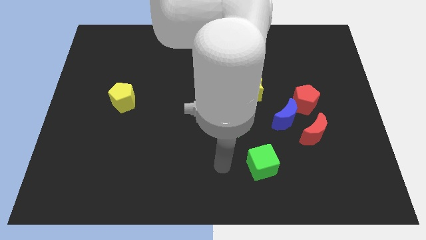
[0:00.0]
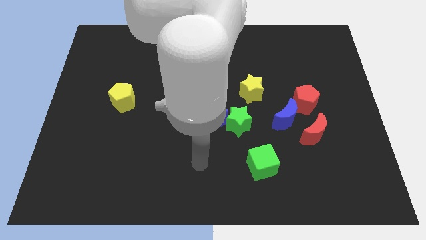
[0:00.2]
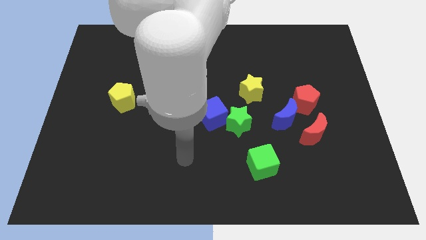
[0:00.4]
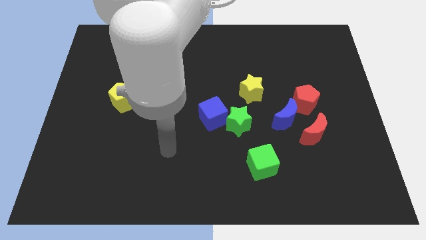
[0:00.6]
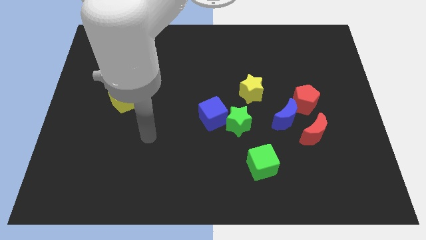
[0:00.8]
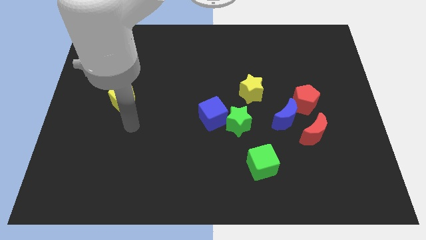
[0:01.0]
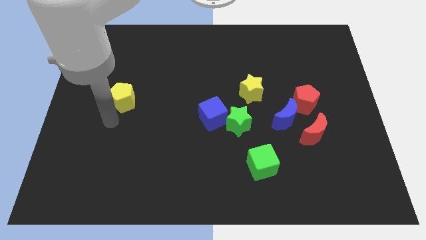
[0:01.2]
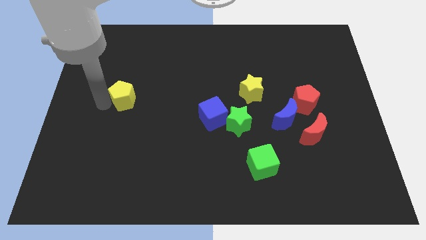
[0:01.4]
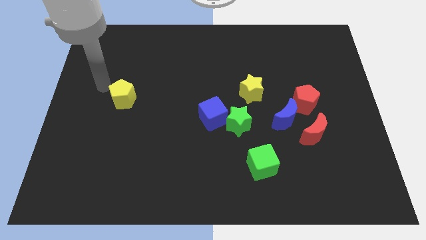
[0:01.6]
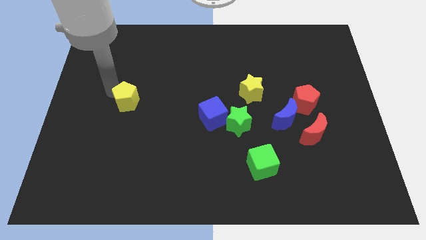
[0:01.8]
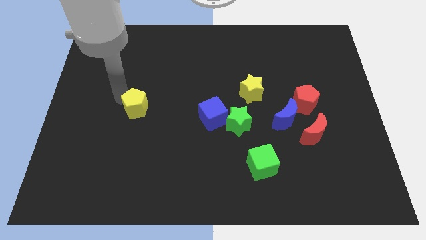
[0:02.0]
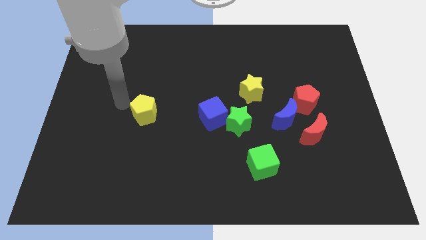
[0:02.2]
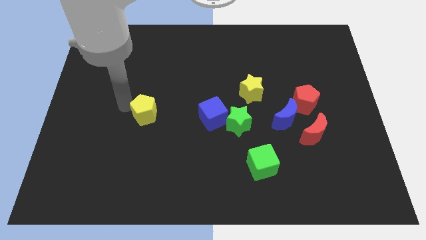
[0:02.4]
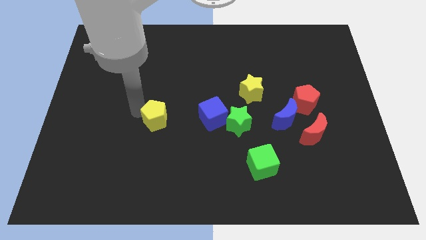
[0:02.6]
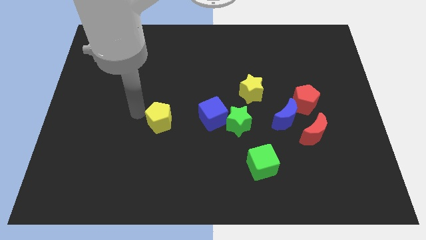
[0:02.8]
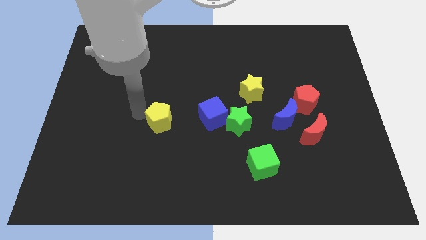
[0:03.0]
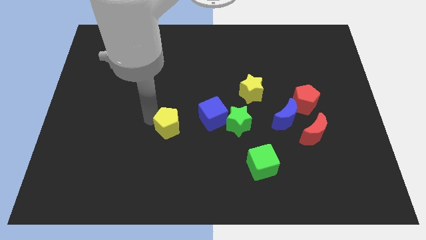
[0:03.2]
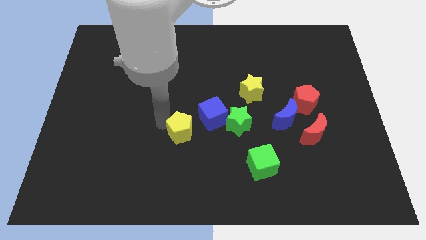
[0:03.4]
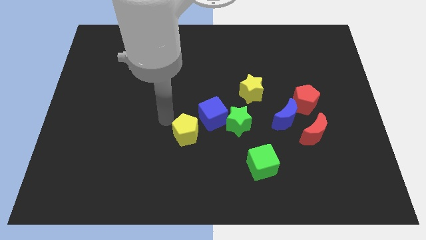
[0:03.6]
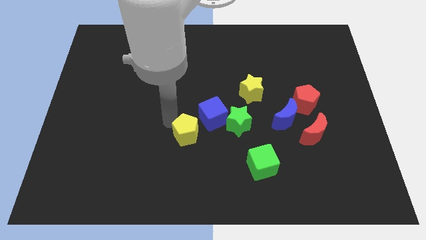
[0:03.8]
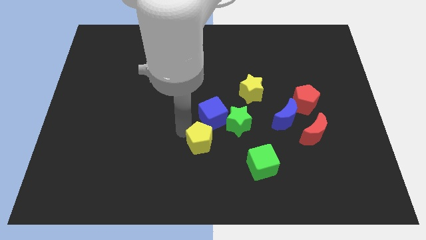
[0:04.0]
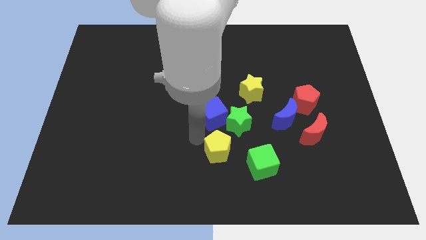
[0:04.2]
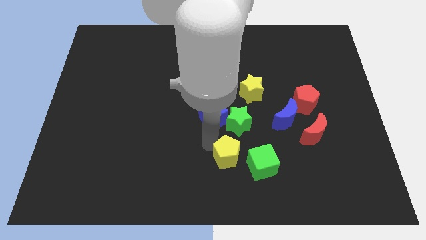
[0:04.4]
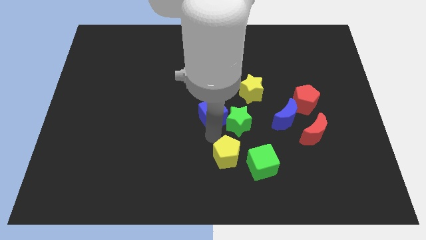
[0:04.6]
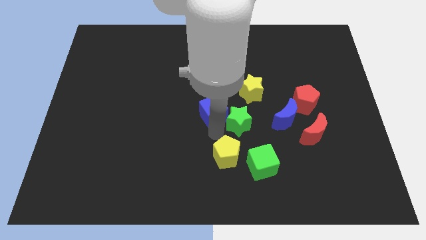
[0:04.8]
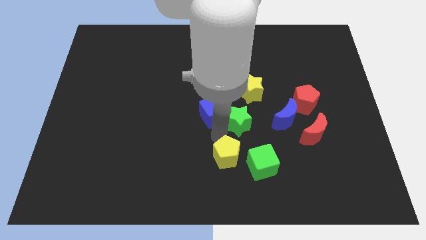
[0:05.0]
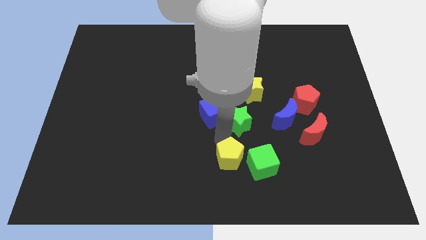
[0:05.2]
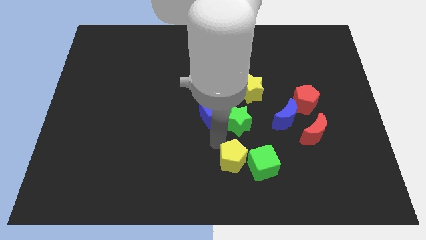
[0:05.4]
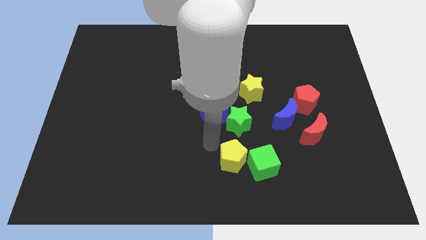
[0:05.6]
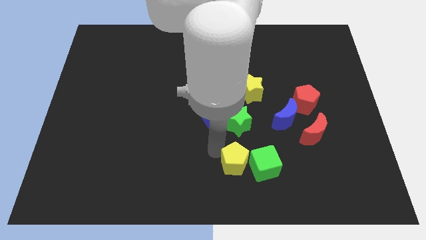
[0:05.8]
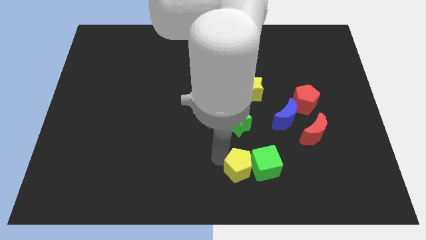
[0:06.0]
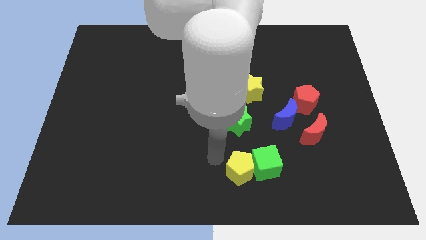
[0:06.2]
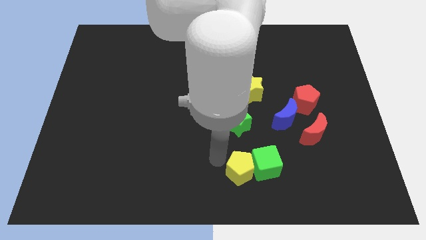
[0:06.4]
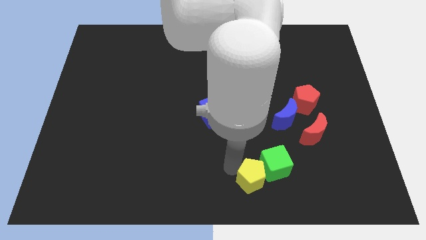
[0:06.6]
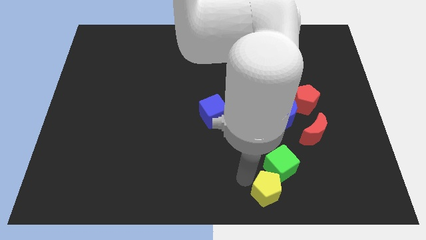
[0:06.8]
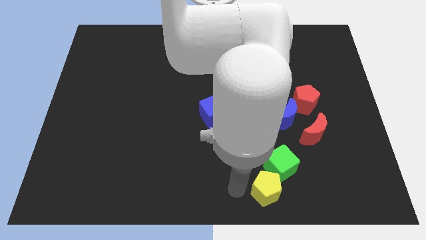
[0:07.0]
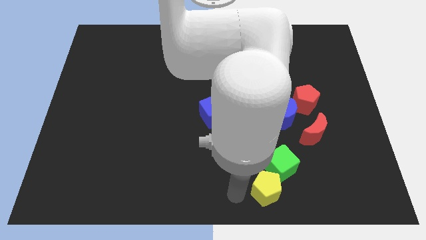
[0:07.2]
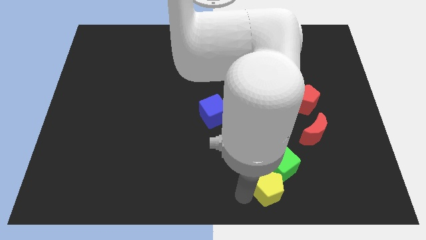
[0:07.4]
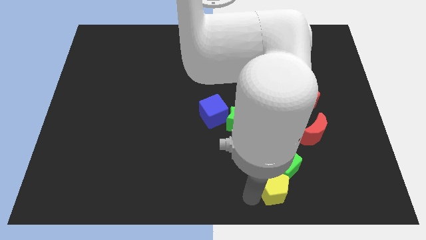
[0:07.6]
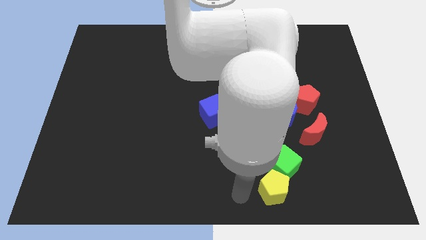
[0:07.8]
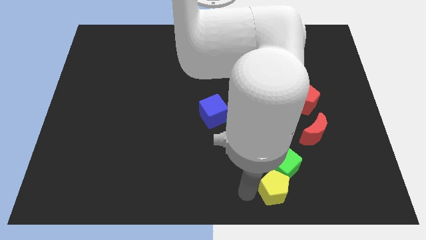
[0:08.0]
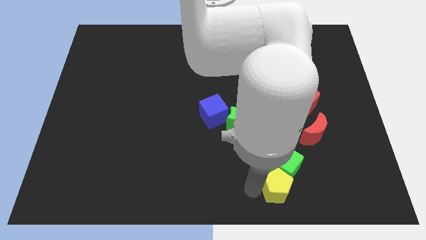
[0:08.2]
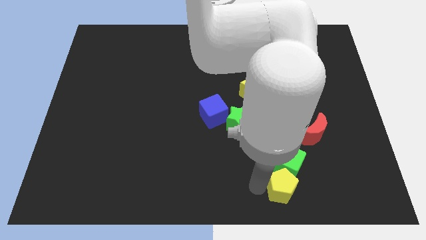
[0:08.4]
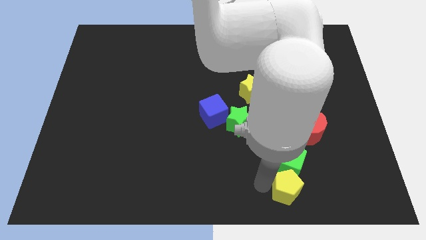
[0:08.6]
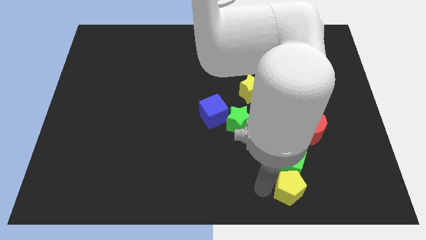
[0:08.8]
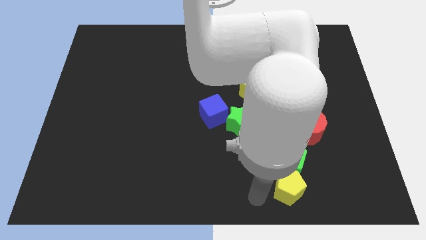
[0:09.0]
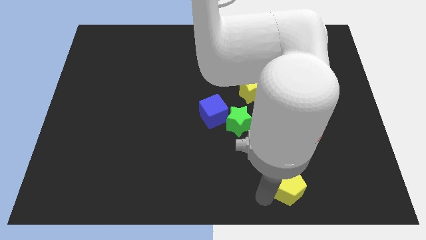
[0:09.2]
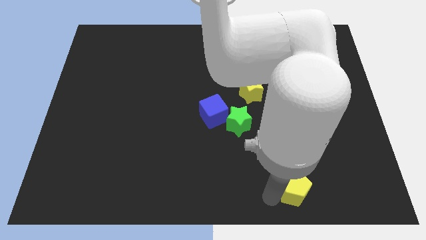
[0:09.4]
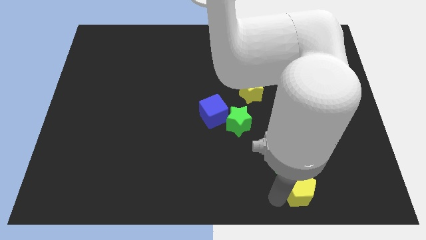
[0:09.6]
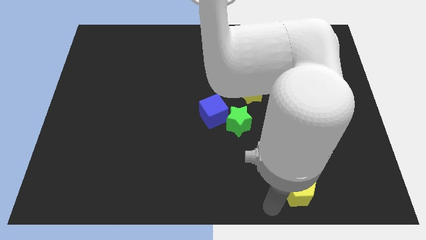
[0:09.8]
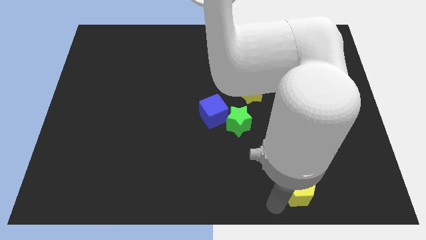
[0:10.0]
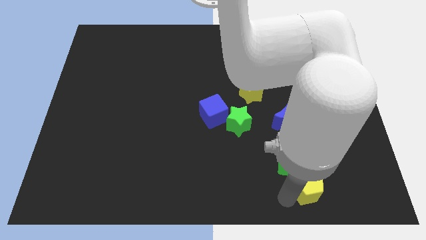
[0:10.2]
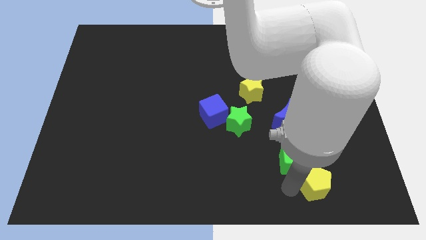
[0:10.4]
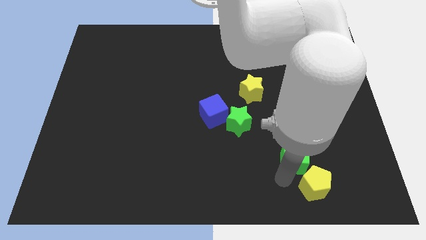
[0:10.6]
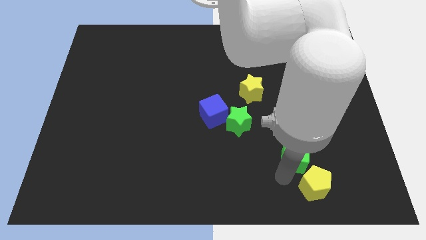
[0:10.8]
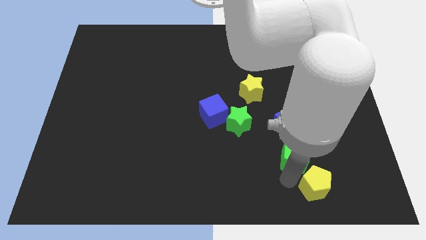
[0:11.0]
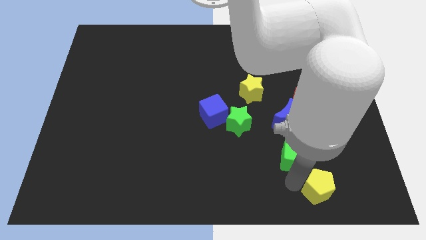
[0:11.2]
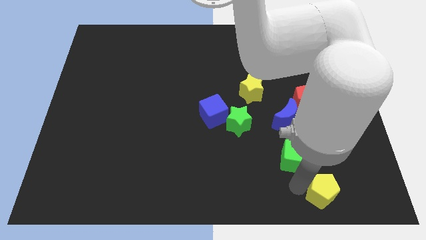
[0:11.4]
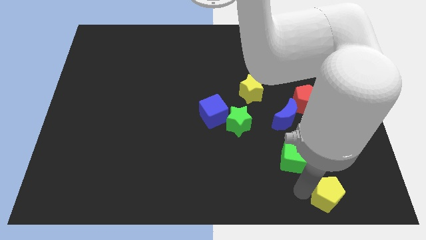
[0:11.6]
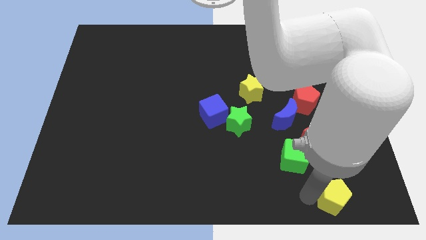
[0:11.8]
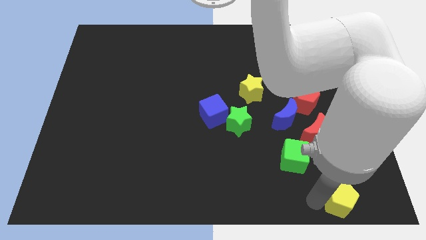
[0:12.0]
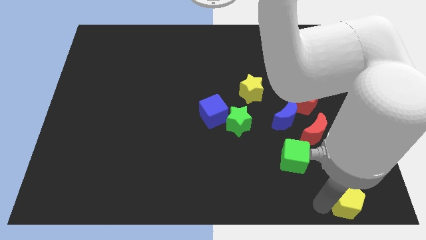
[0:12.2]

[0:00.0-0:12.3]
slide the yellow pentagon to the lower right corner
